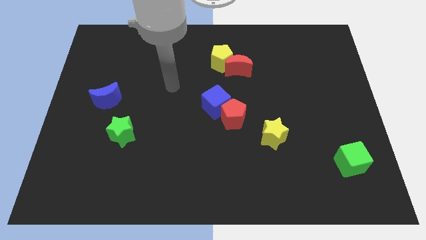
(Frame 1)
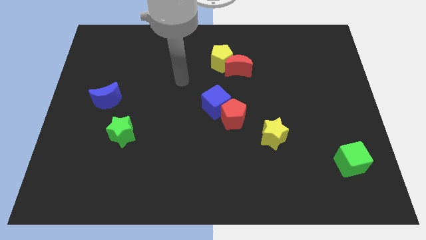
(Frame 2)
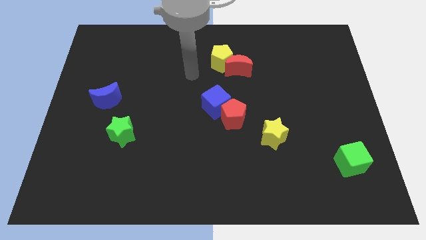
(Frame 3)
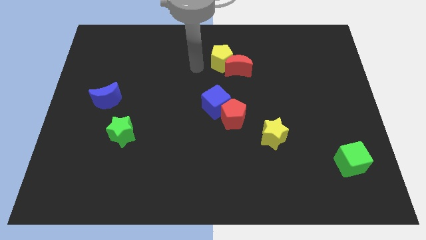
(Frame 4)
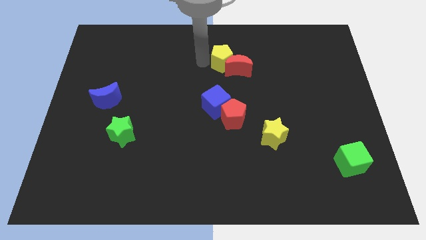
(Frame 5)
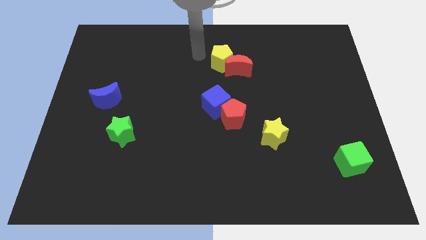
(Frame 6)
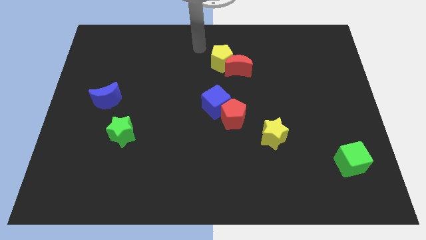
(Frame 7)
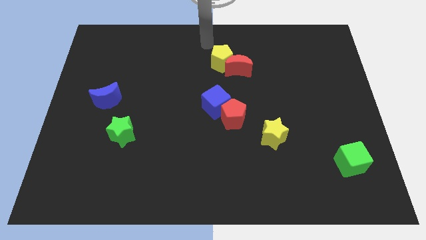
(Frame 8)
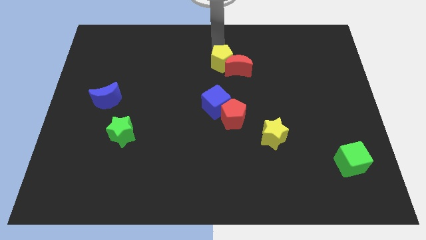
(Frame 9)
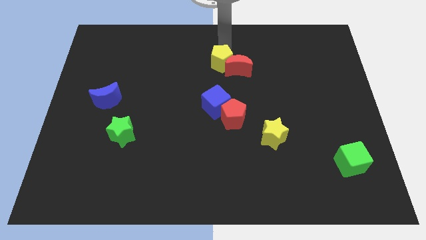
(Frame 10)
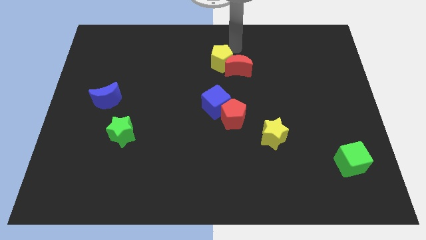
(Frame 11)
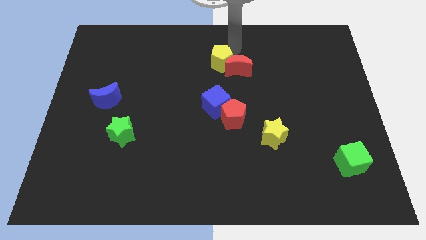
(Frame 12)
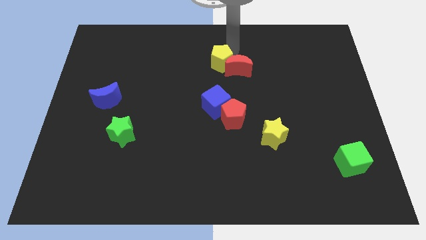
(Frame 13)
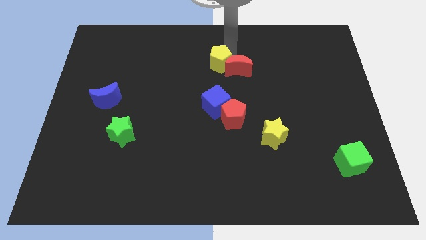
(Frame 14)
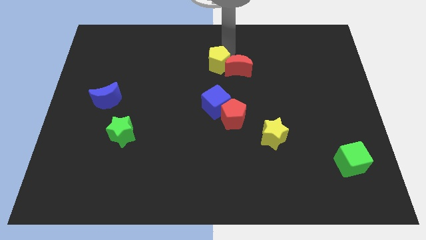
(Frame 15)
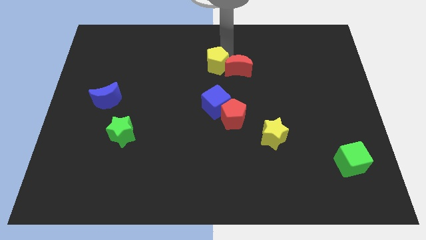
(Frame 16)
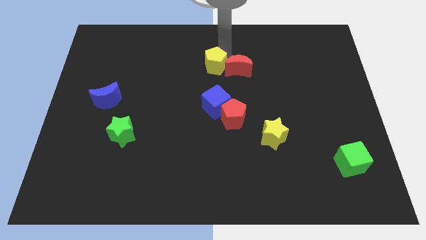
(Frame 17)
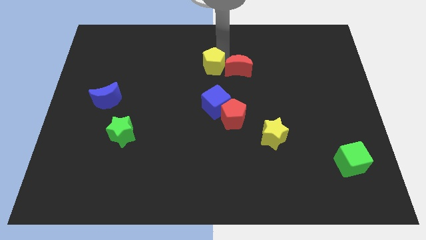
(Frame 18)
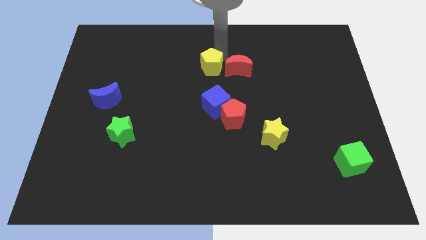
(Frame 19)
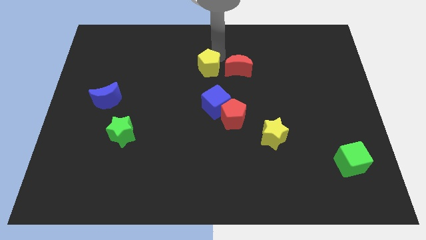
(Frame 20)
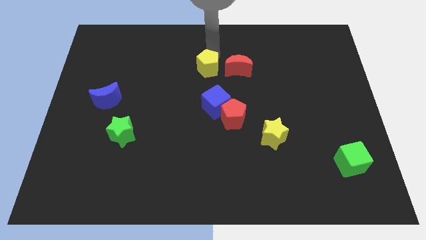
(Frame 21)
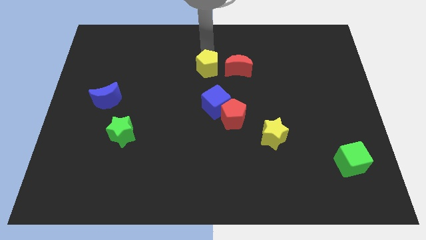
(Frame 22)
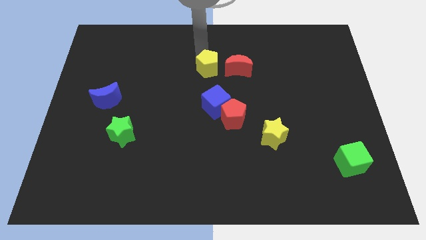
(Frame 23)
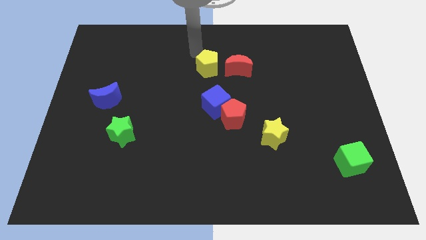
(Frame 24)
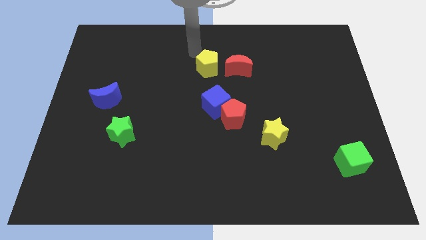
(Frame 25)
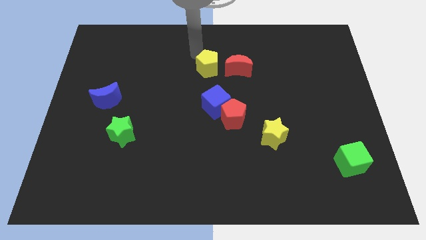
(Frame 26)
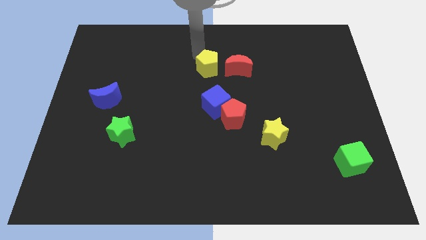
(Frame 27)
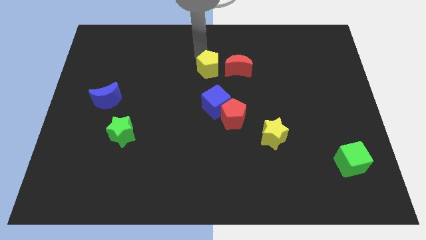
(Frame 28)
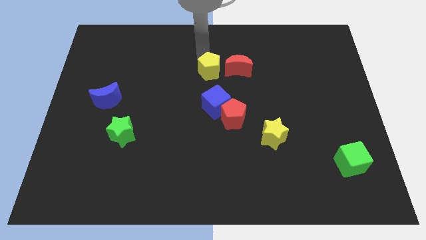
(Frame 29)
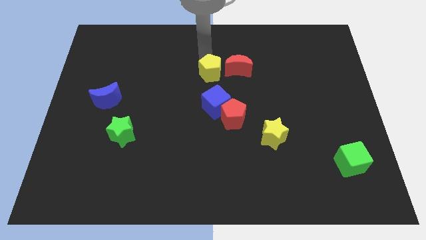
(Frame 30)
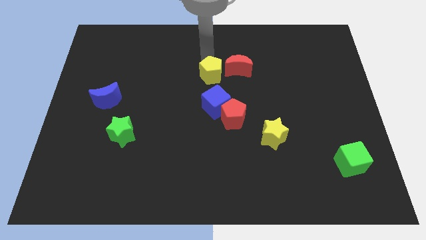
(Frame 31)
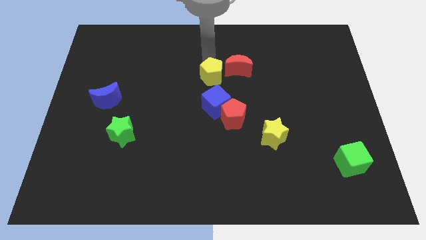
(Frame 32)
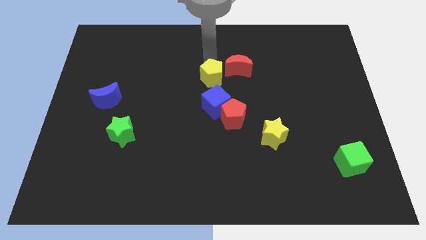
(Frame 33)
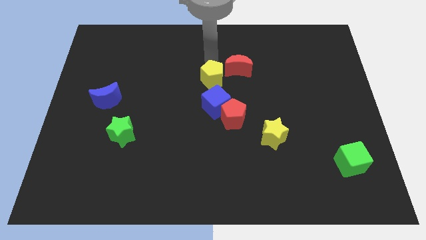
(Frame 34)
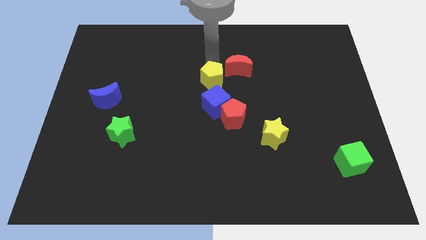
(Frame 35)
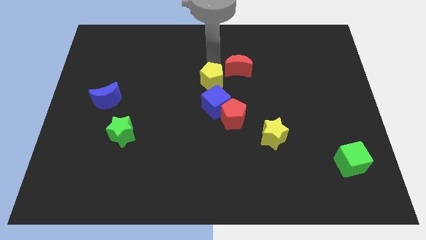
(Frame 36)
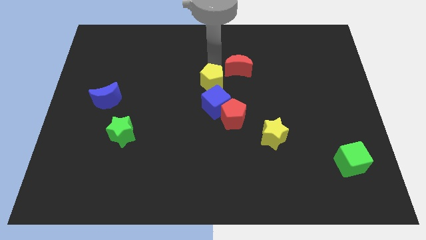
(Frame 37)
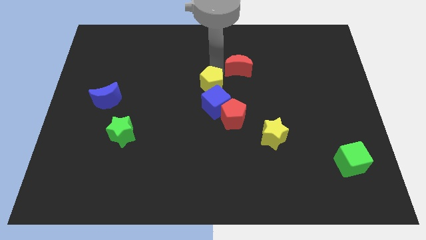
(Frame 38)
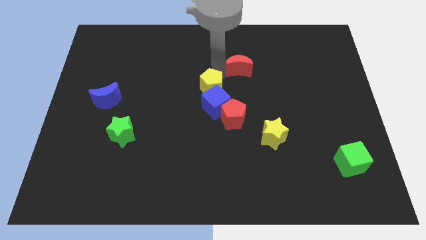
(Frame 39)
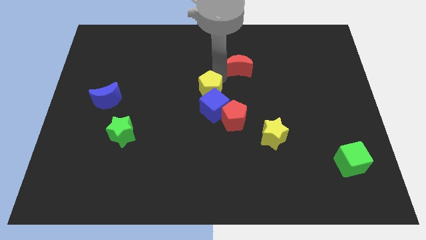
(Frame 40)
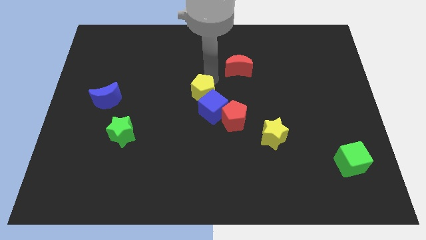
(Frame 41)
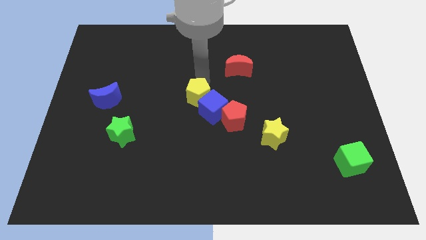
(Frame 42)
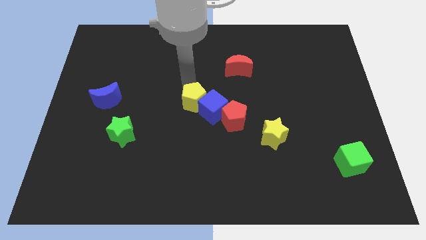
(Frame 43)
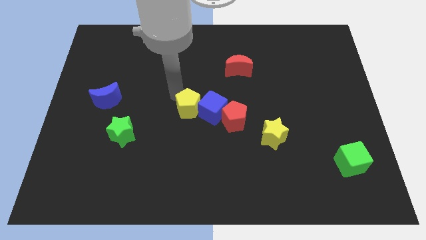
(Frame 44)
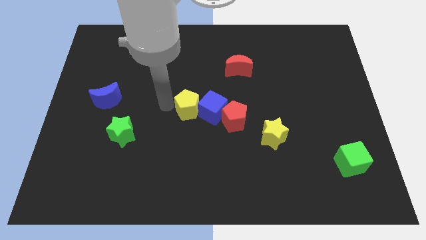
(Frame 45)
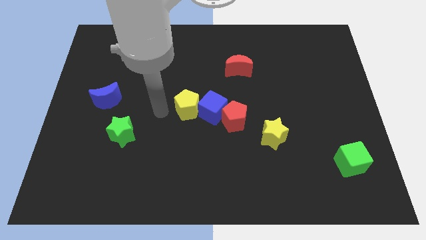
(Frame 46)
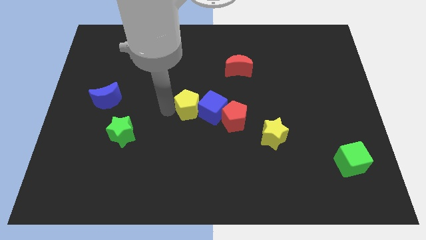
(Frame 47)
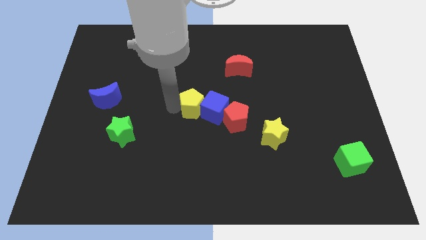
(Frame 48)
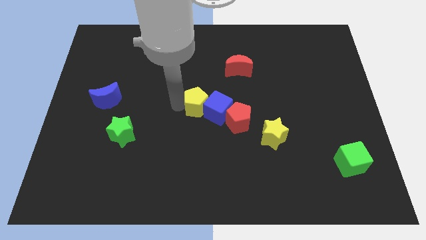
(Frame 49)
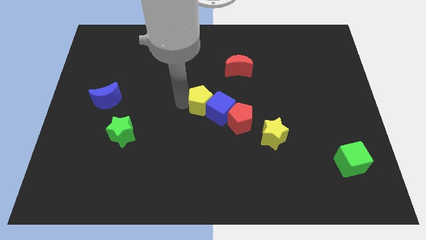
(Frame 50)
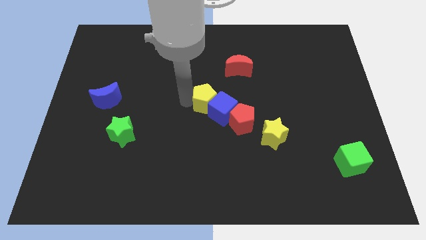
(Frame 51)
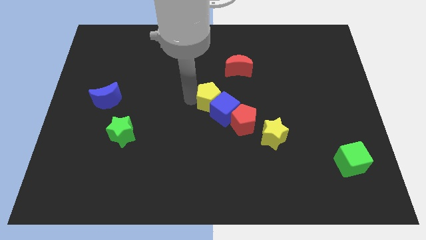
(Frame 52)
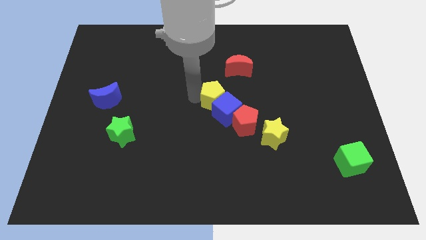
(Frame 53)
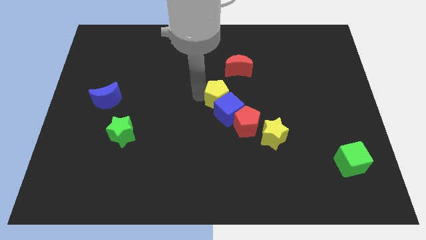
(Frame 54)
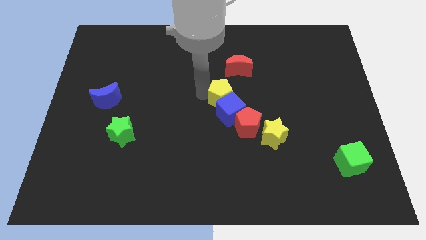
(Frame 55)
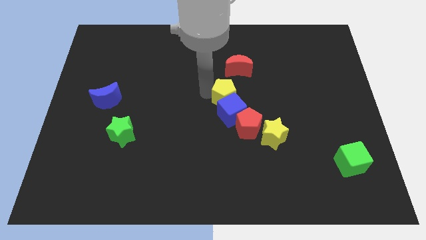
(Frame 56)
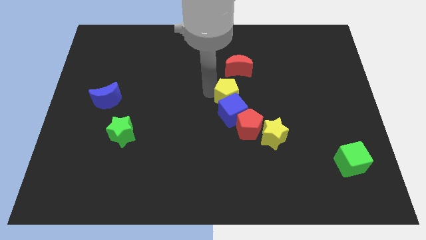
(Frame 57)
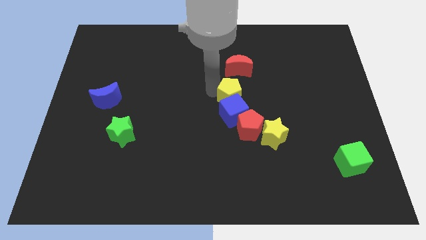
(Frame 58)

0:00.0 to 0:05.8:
slightly slide the yellow pentagon down and then to the right

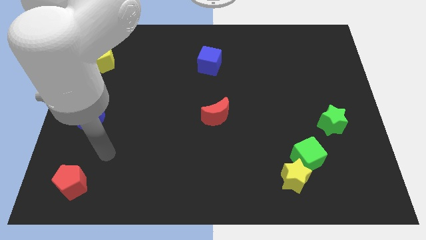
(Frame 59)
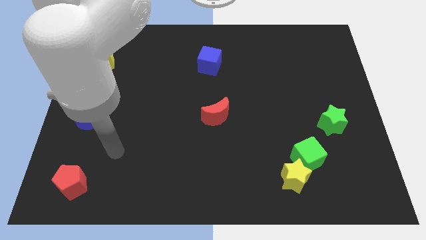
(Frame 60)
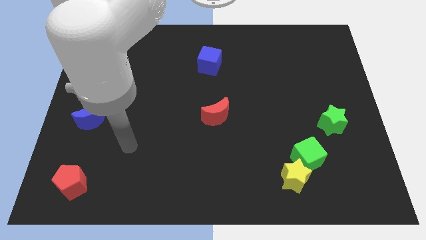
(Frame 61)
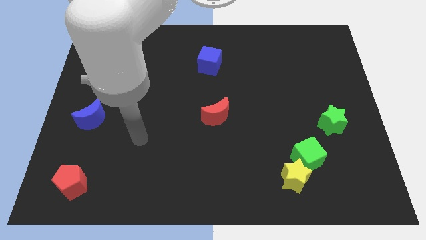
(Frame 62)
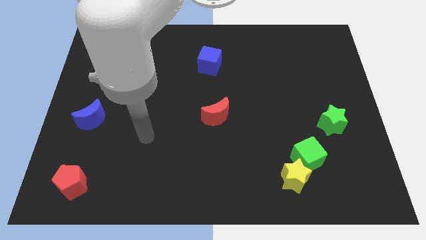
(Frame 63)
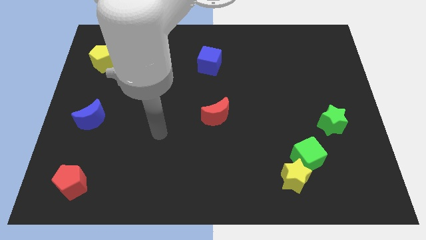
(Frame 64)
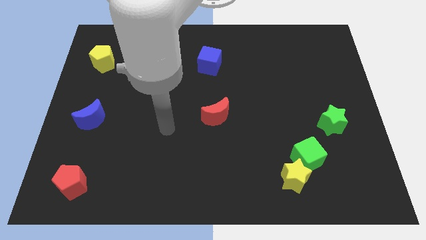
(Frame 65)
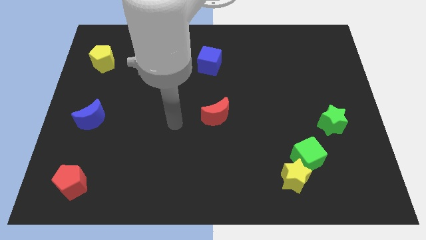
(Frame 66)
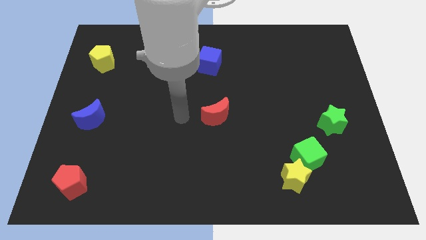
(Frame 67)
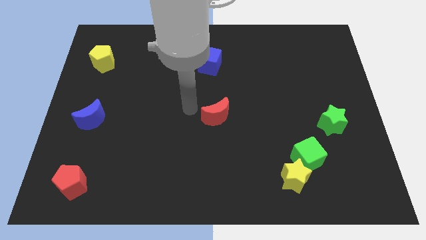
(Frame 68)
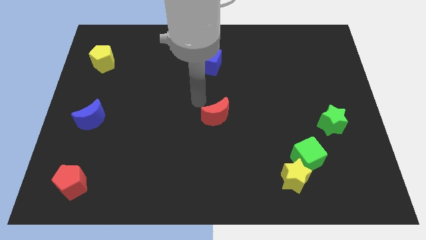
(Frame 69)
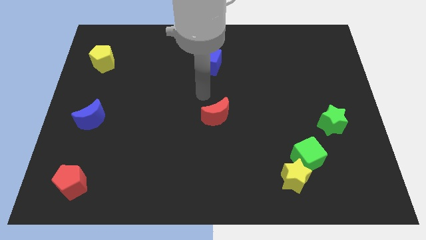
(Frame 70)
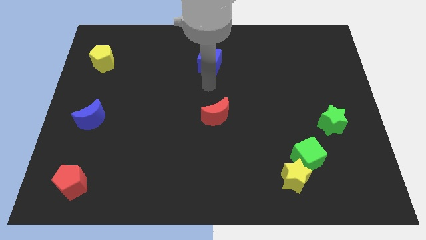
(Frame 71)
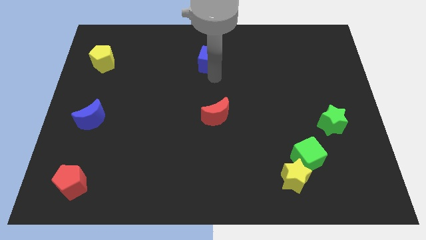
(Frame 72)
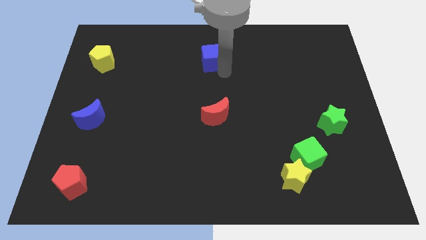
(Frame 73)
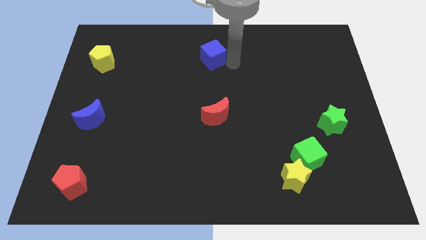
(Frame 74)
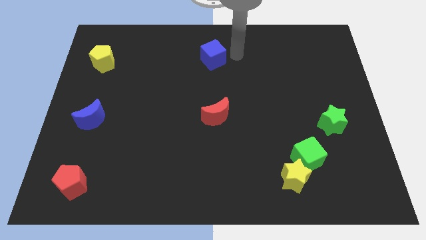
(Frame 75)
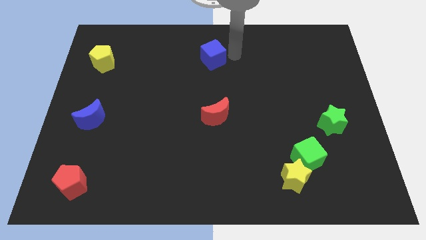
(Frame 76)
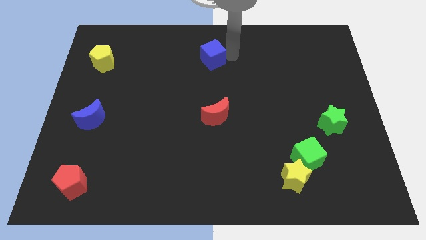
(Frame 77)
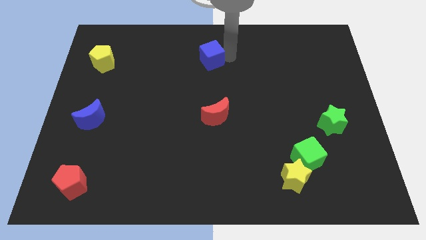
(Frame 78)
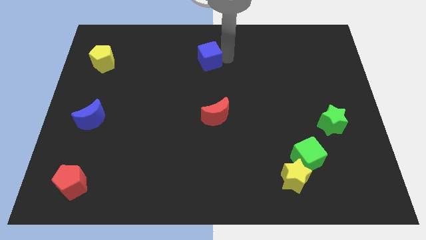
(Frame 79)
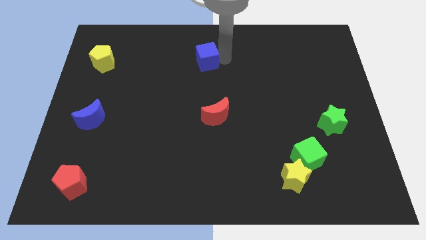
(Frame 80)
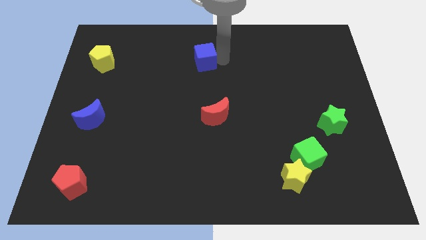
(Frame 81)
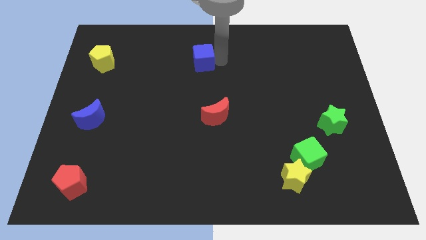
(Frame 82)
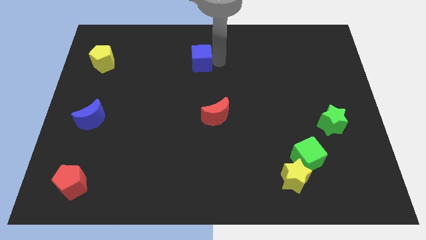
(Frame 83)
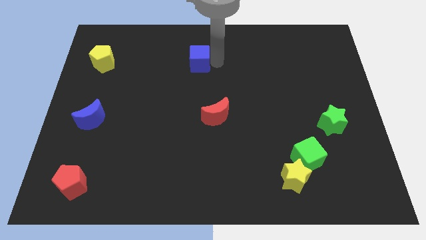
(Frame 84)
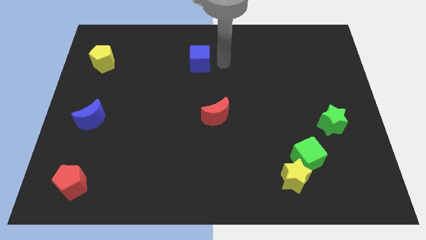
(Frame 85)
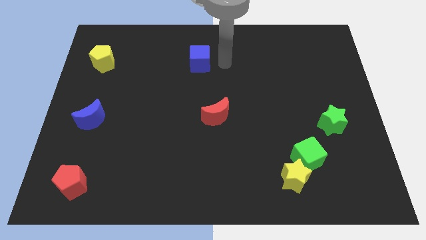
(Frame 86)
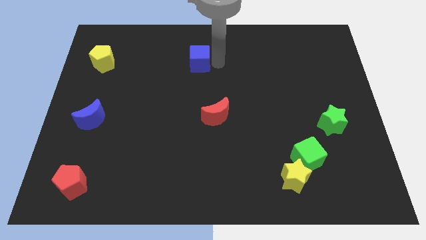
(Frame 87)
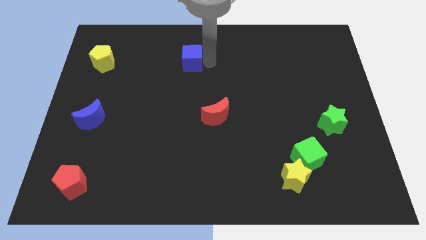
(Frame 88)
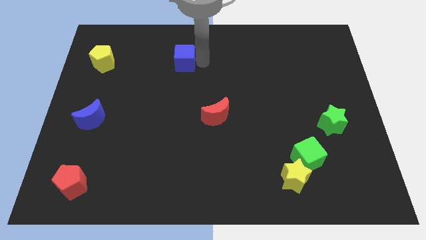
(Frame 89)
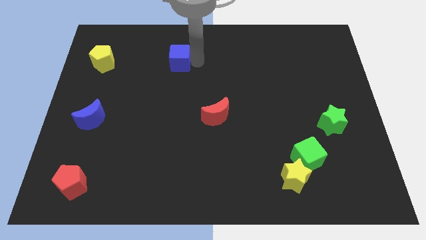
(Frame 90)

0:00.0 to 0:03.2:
slightly move the blue cube left
